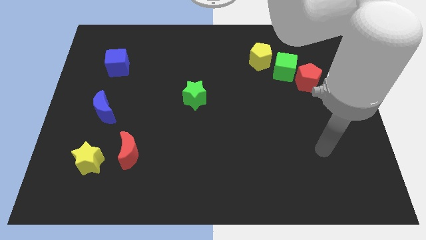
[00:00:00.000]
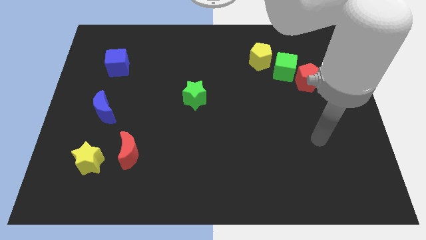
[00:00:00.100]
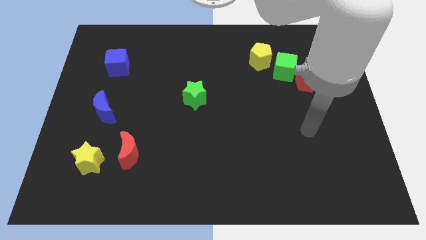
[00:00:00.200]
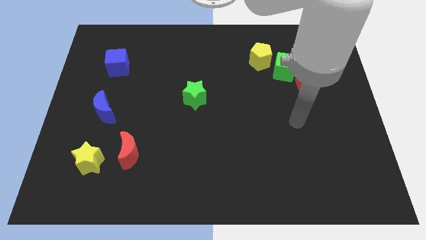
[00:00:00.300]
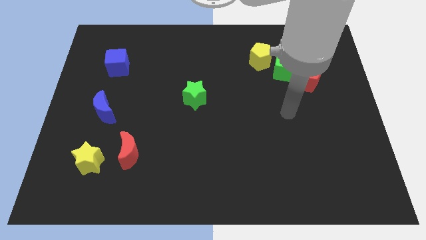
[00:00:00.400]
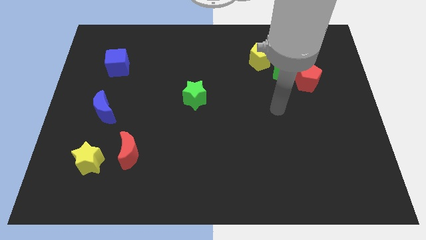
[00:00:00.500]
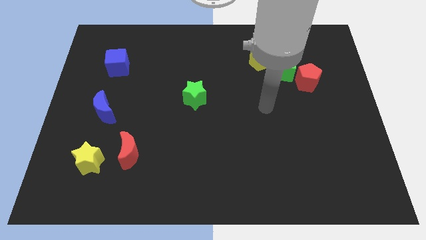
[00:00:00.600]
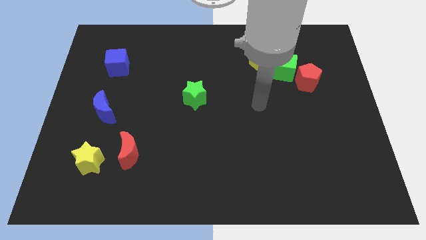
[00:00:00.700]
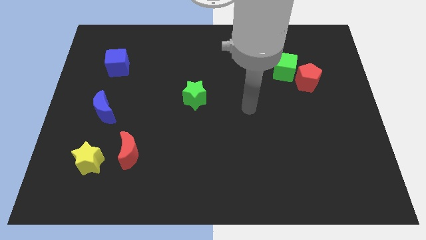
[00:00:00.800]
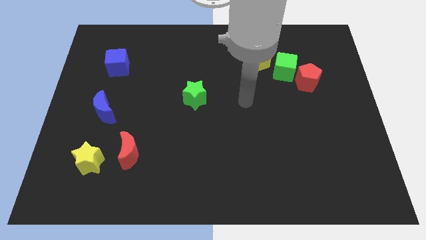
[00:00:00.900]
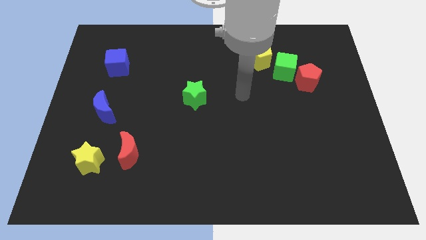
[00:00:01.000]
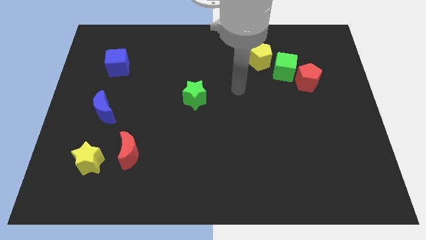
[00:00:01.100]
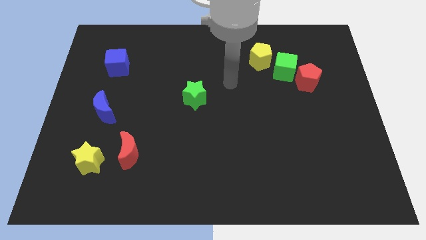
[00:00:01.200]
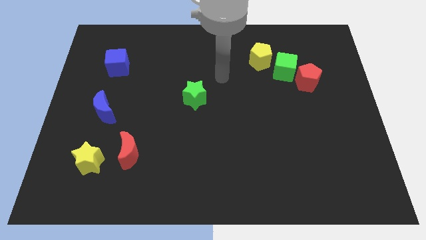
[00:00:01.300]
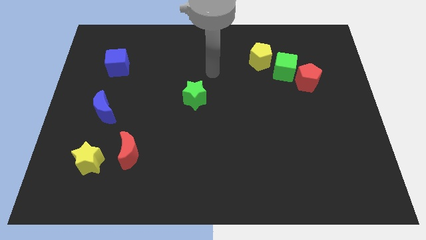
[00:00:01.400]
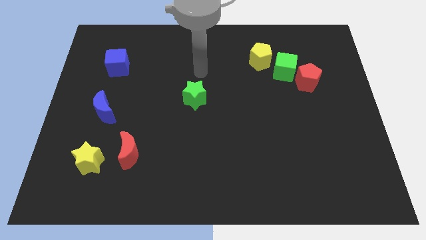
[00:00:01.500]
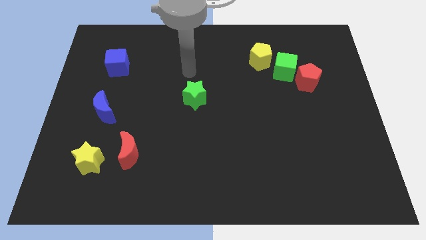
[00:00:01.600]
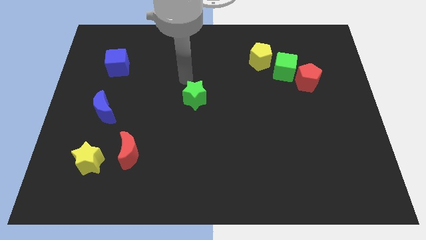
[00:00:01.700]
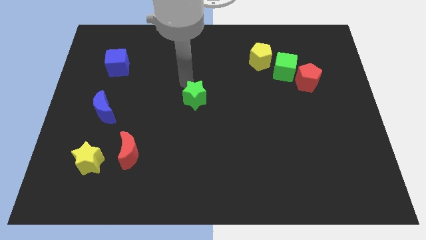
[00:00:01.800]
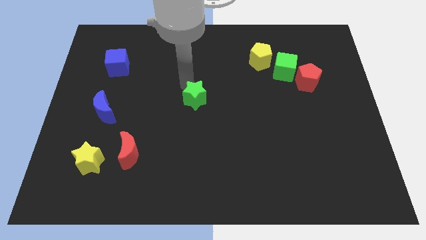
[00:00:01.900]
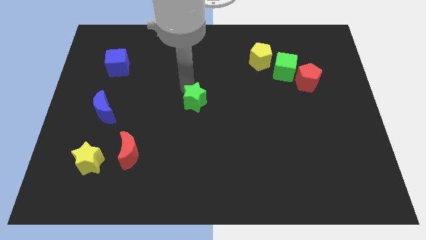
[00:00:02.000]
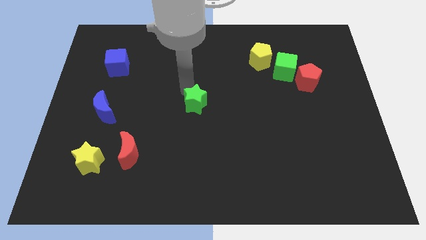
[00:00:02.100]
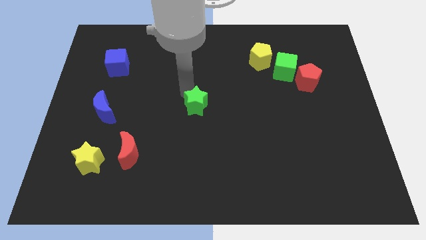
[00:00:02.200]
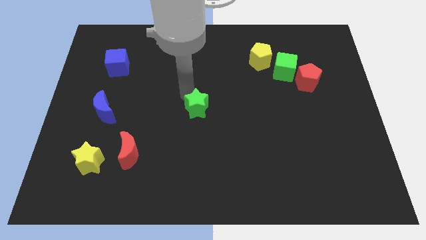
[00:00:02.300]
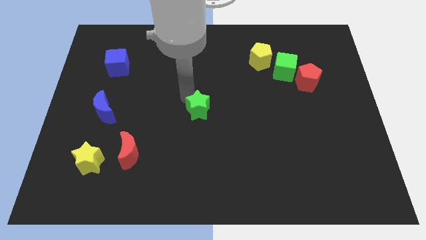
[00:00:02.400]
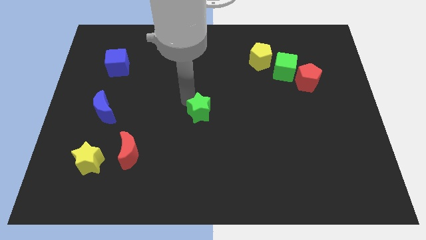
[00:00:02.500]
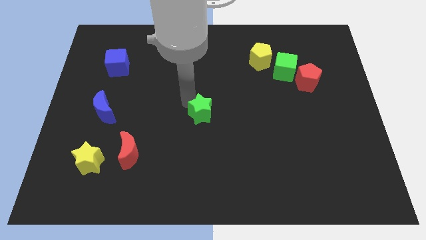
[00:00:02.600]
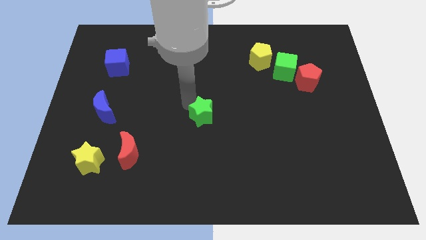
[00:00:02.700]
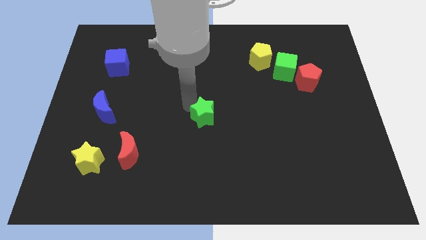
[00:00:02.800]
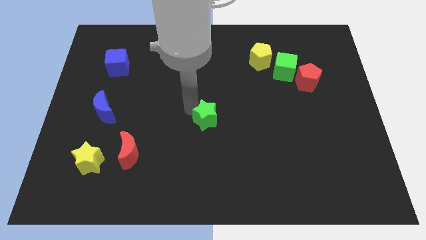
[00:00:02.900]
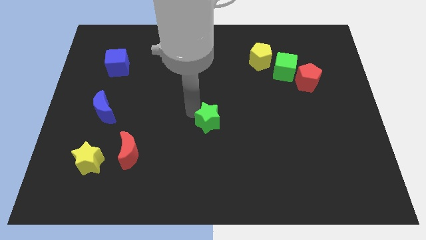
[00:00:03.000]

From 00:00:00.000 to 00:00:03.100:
slide the green star a little downwards and to the right diagonally

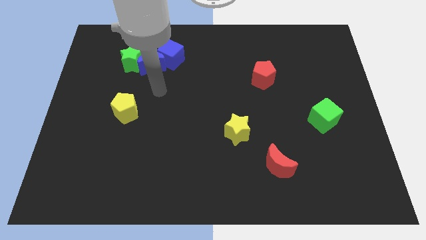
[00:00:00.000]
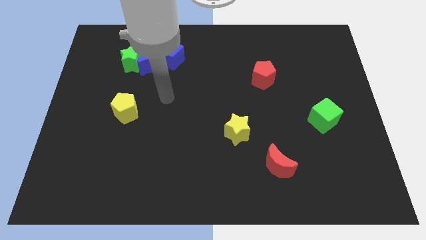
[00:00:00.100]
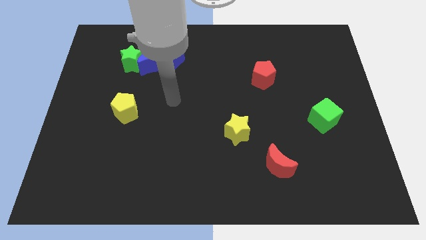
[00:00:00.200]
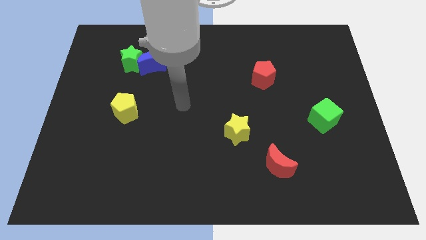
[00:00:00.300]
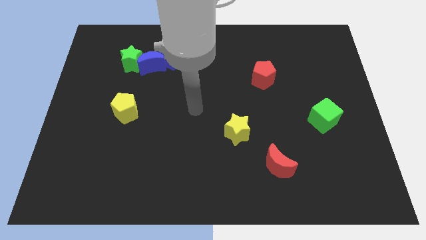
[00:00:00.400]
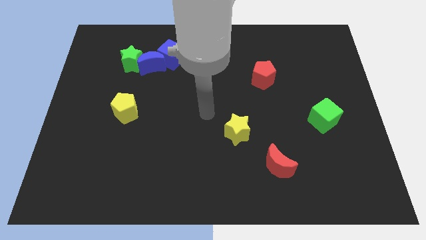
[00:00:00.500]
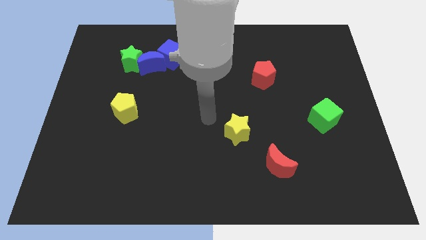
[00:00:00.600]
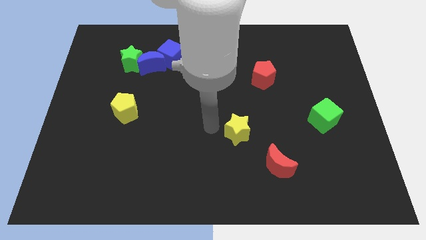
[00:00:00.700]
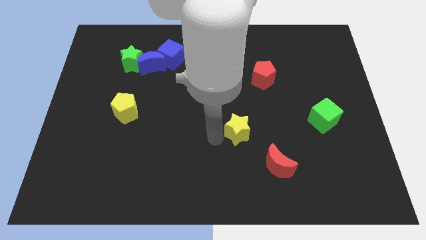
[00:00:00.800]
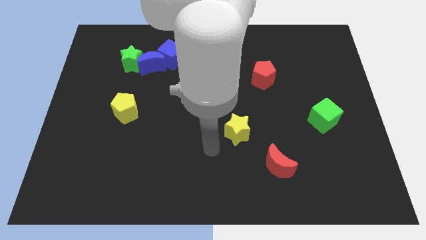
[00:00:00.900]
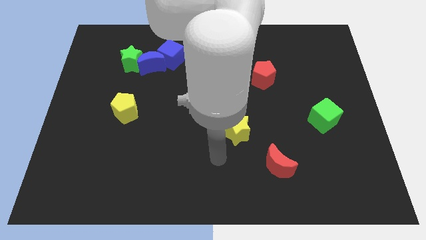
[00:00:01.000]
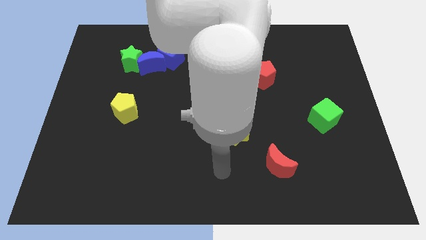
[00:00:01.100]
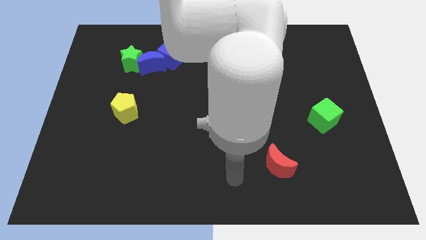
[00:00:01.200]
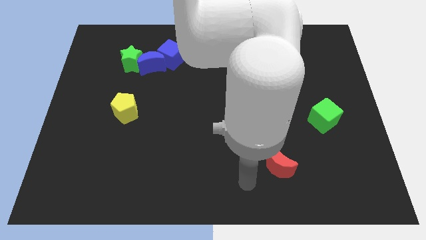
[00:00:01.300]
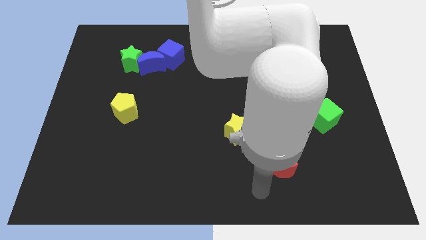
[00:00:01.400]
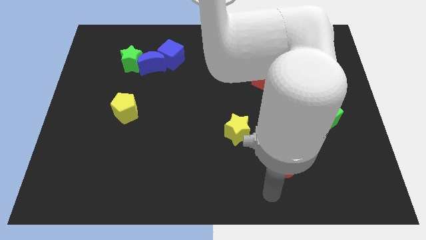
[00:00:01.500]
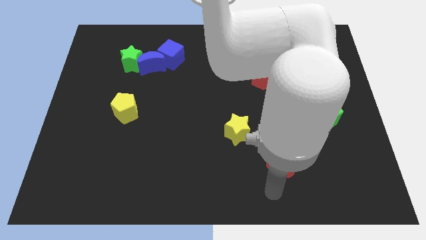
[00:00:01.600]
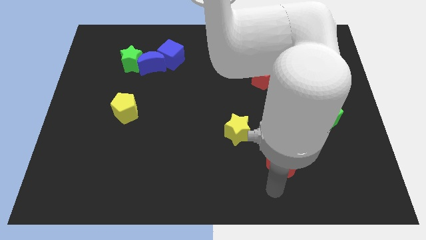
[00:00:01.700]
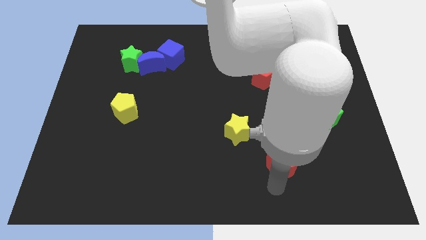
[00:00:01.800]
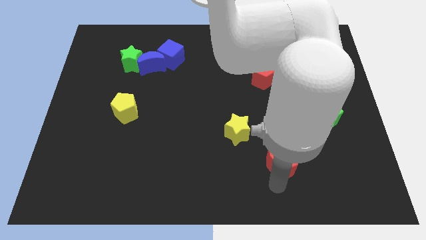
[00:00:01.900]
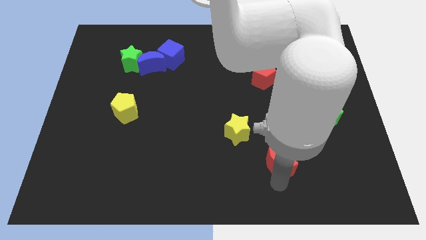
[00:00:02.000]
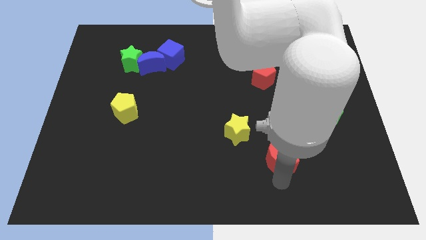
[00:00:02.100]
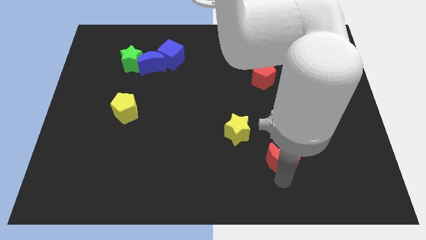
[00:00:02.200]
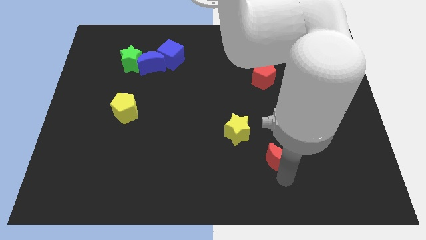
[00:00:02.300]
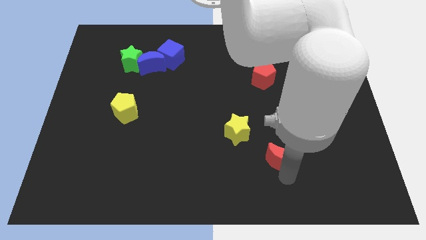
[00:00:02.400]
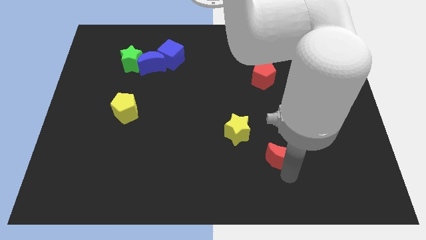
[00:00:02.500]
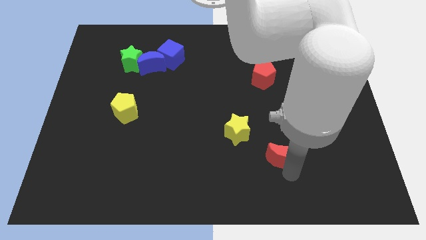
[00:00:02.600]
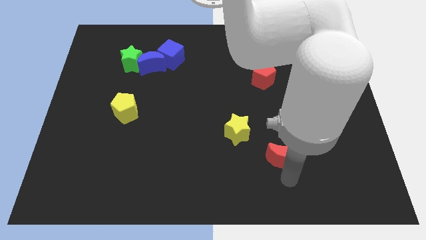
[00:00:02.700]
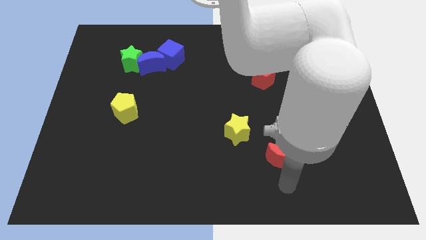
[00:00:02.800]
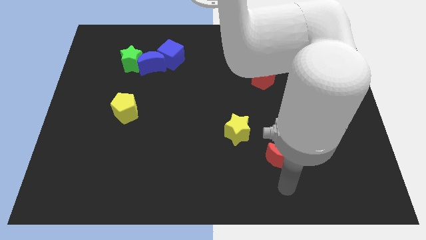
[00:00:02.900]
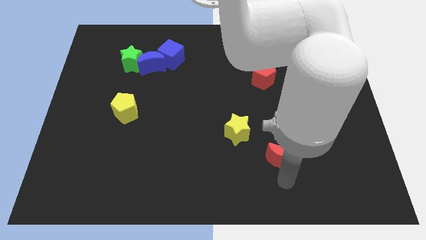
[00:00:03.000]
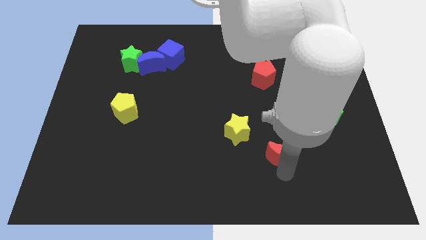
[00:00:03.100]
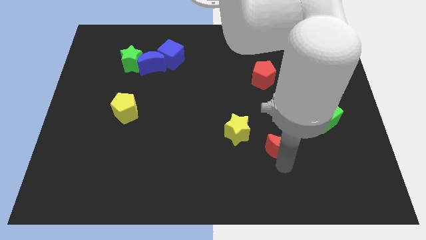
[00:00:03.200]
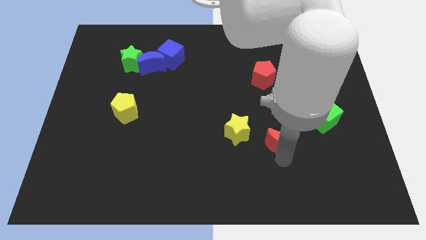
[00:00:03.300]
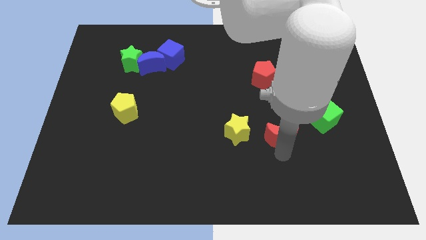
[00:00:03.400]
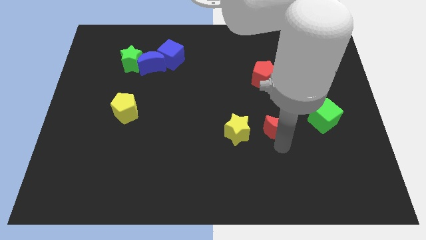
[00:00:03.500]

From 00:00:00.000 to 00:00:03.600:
move the red moon a little bit up

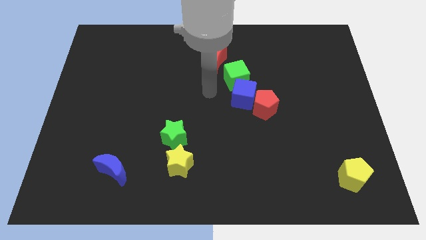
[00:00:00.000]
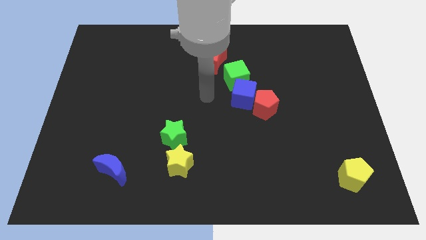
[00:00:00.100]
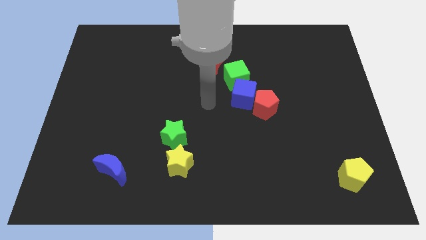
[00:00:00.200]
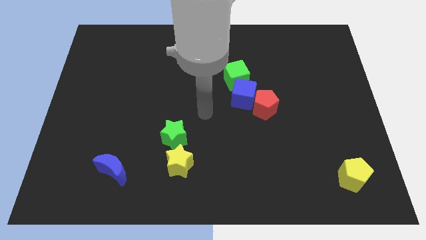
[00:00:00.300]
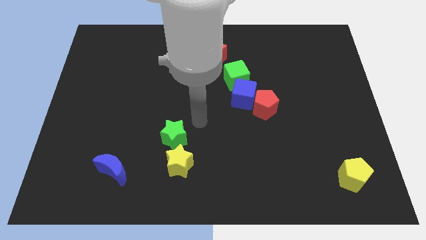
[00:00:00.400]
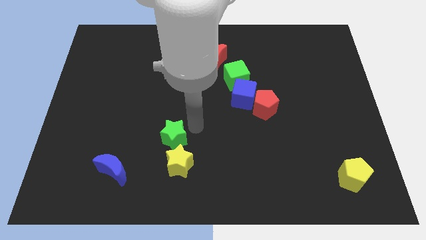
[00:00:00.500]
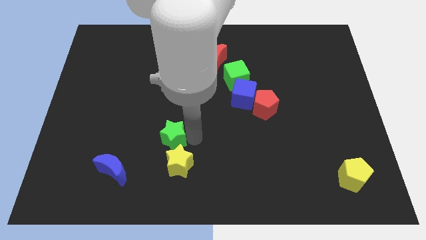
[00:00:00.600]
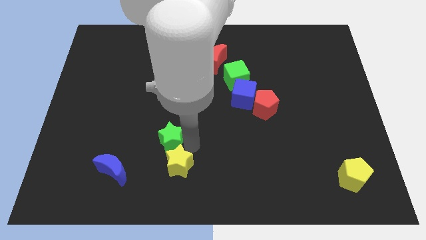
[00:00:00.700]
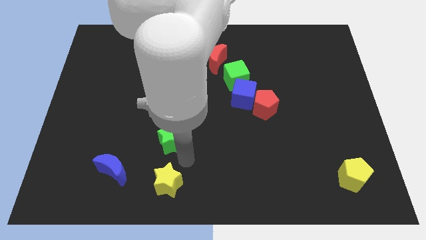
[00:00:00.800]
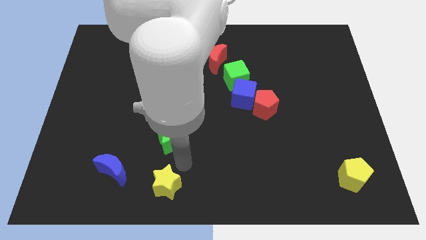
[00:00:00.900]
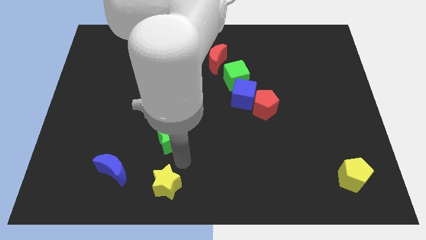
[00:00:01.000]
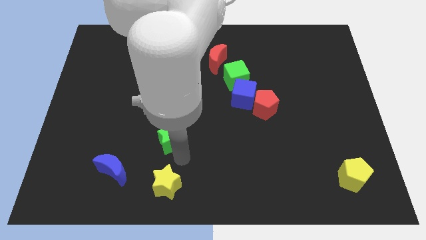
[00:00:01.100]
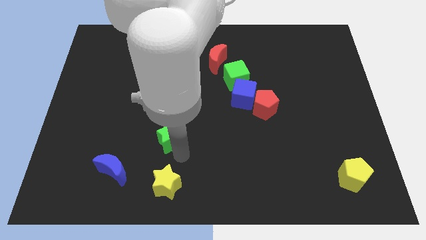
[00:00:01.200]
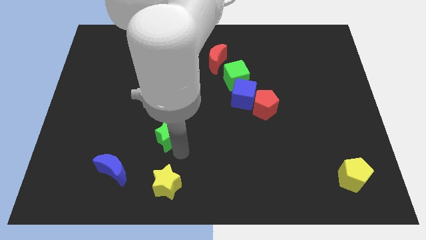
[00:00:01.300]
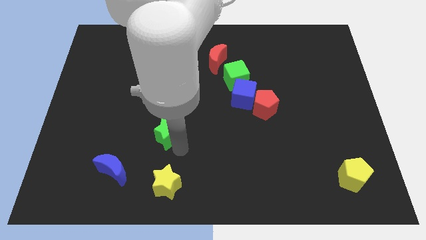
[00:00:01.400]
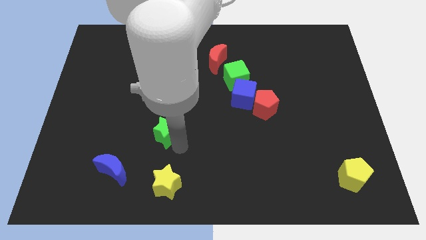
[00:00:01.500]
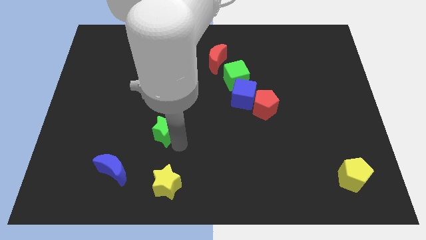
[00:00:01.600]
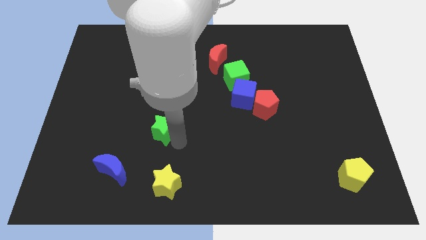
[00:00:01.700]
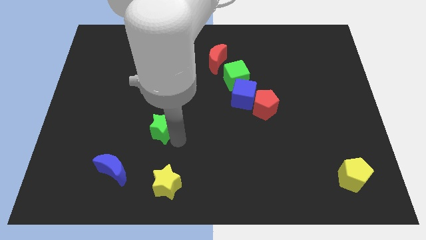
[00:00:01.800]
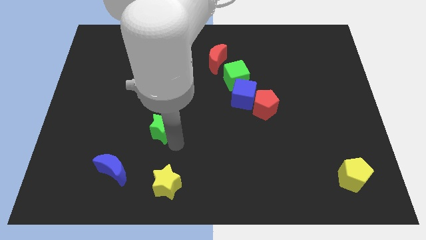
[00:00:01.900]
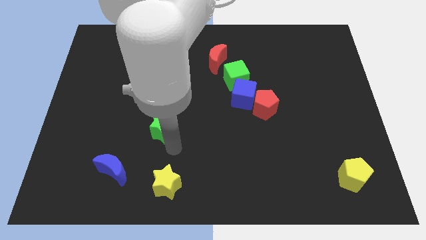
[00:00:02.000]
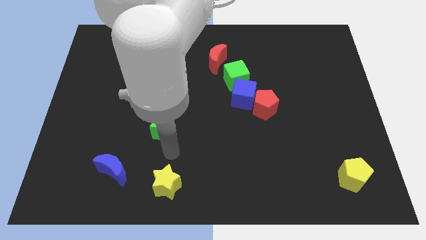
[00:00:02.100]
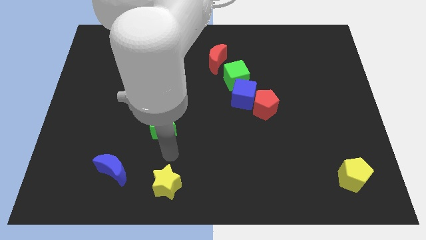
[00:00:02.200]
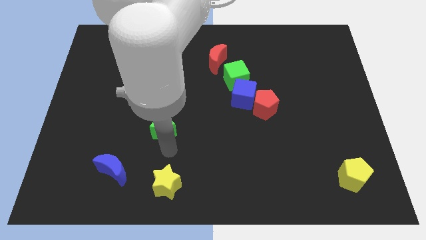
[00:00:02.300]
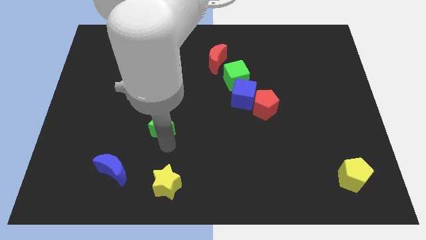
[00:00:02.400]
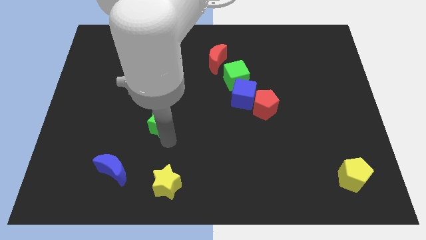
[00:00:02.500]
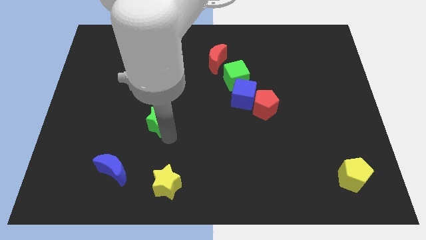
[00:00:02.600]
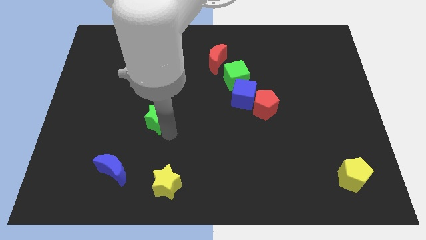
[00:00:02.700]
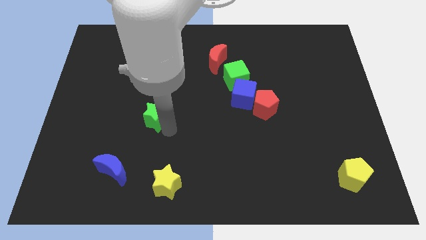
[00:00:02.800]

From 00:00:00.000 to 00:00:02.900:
move the green star diagonally upwards and left somewhat
